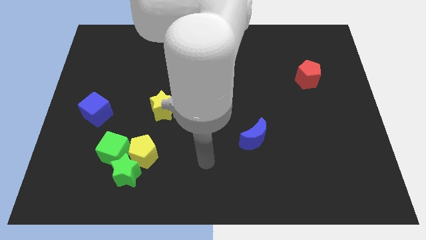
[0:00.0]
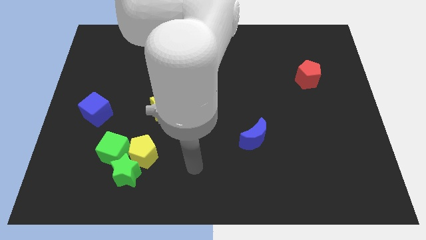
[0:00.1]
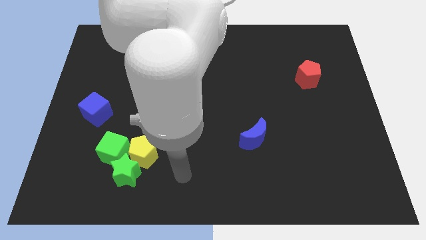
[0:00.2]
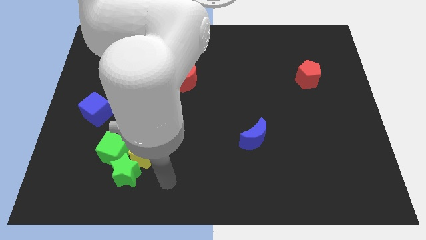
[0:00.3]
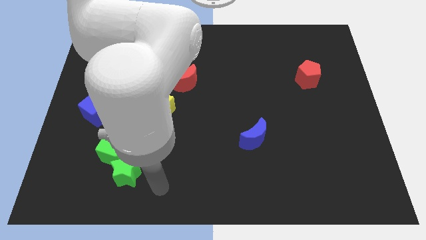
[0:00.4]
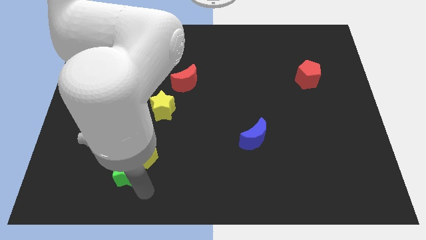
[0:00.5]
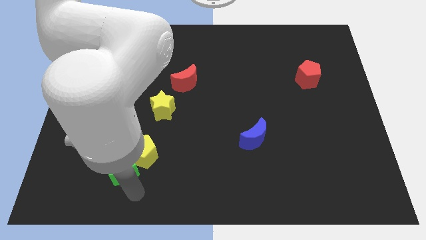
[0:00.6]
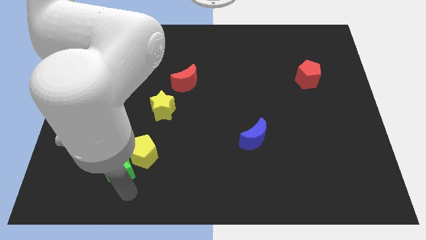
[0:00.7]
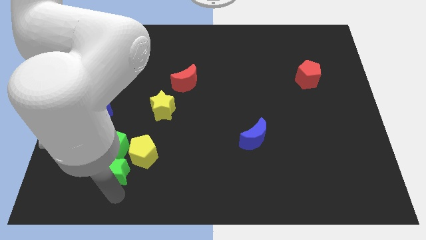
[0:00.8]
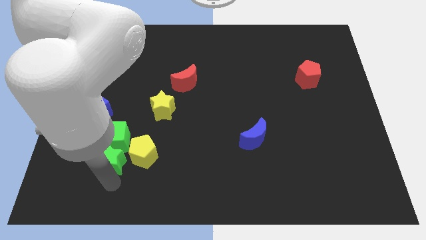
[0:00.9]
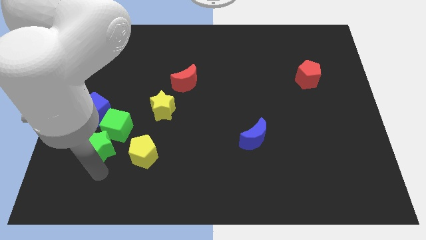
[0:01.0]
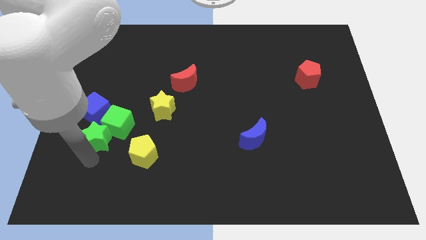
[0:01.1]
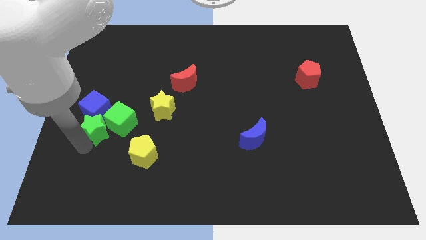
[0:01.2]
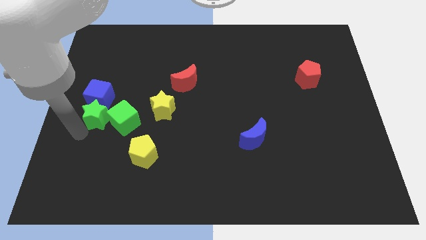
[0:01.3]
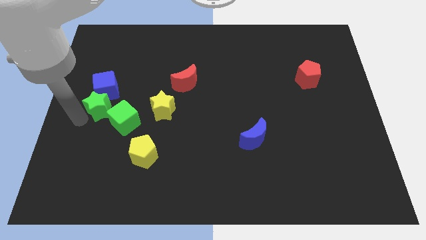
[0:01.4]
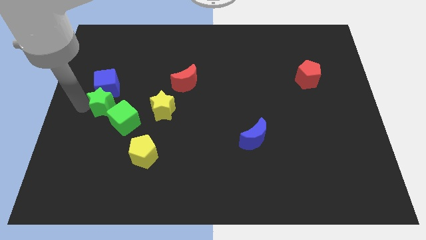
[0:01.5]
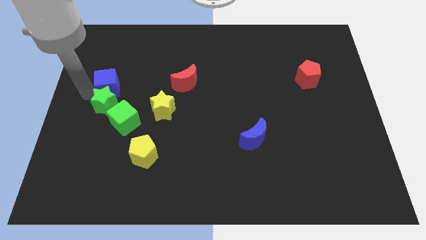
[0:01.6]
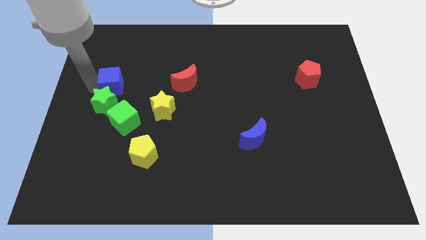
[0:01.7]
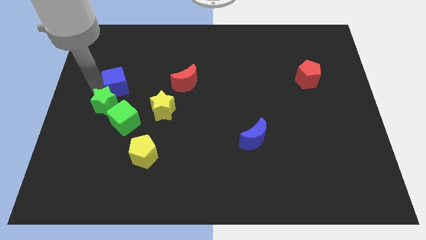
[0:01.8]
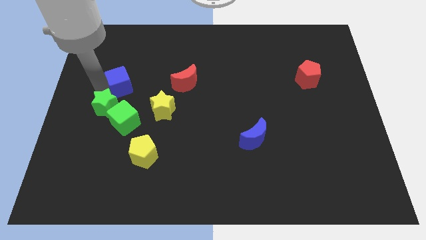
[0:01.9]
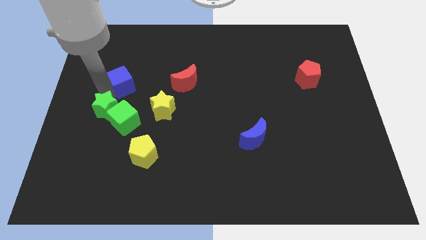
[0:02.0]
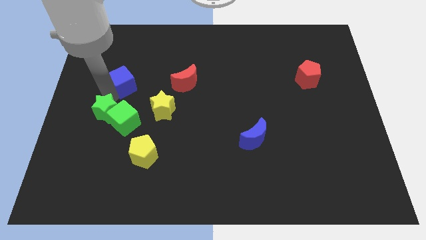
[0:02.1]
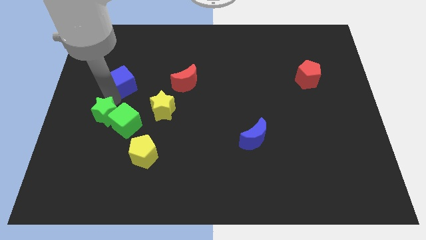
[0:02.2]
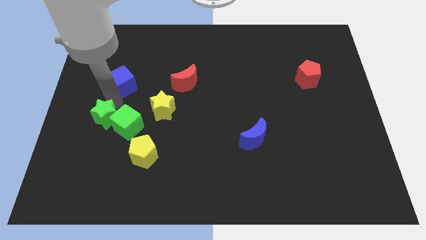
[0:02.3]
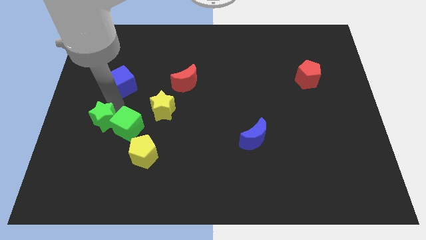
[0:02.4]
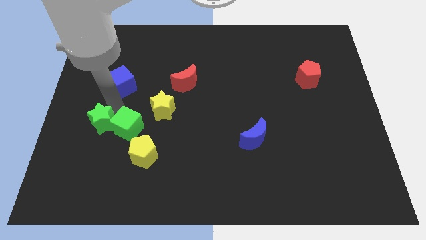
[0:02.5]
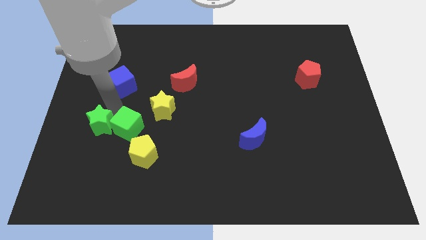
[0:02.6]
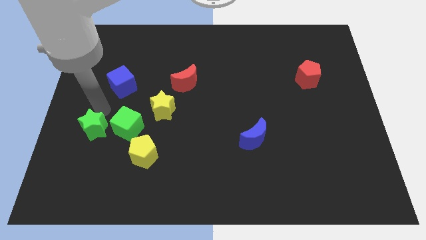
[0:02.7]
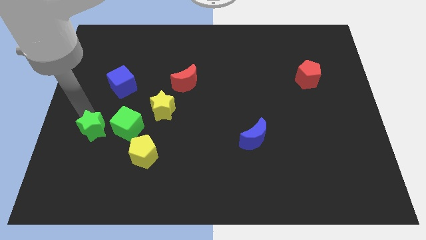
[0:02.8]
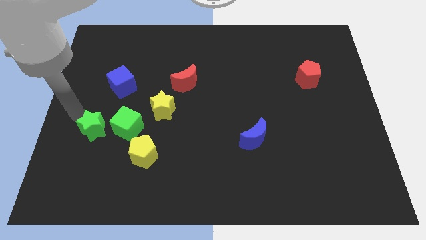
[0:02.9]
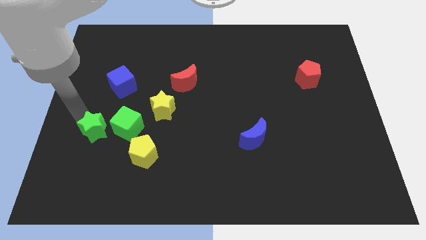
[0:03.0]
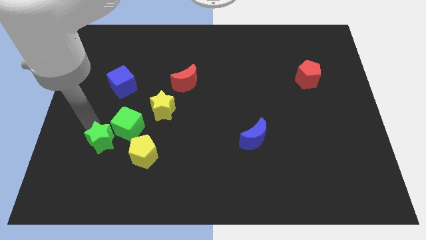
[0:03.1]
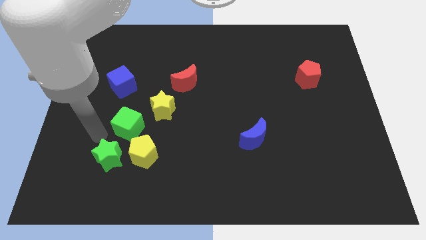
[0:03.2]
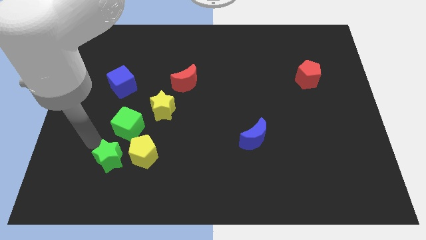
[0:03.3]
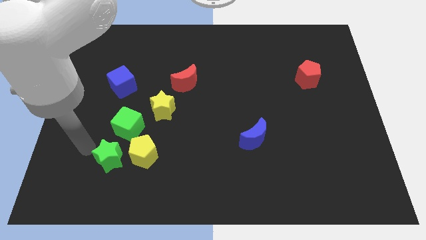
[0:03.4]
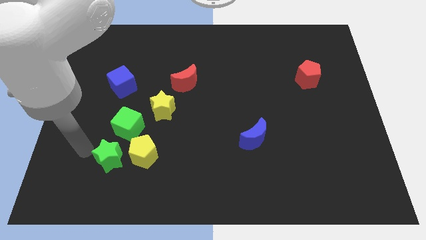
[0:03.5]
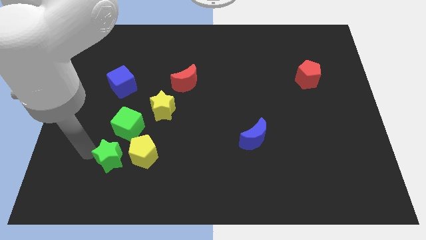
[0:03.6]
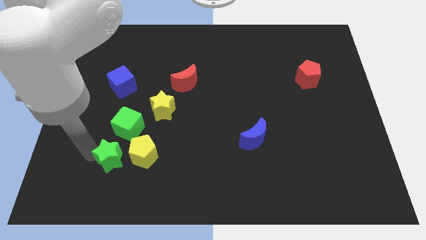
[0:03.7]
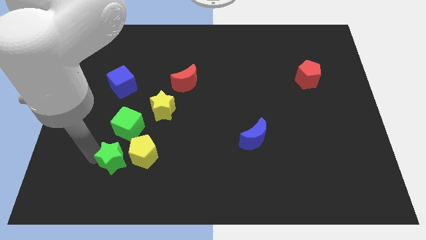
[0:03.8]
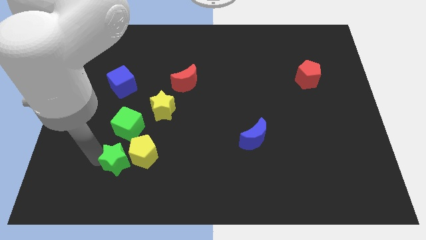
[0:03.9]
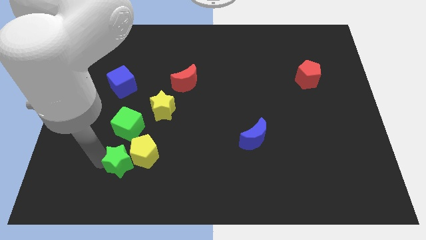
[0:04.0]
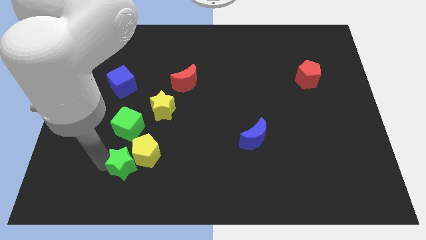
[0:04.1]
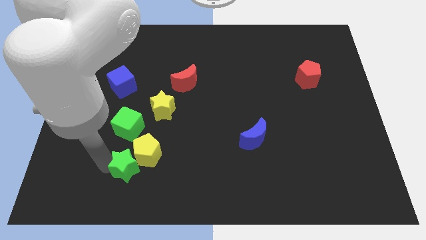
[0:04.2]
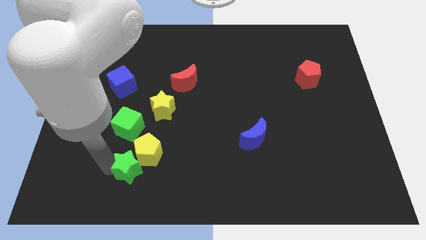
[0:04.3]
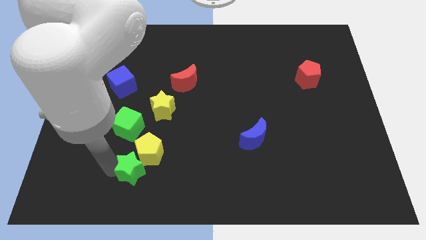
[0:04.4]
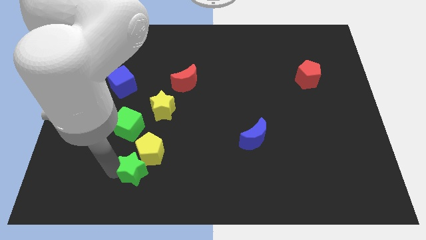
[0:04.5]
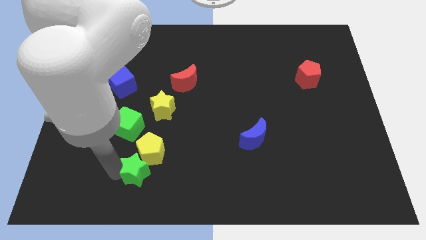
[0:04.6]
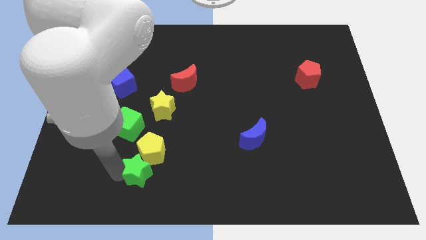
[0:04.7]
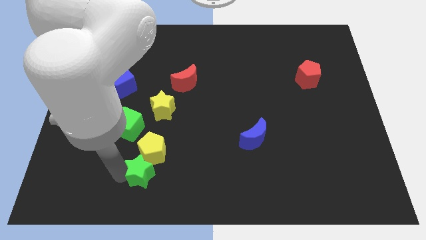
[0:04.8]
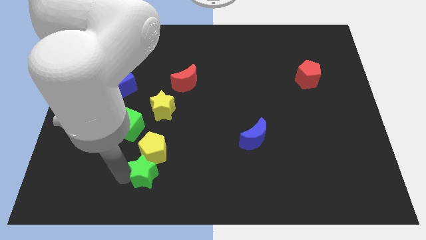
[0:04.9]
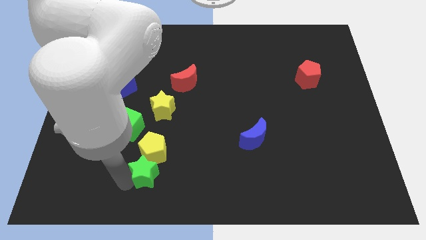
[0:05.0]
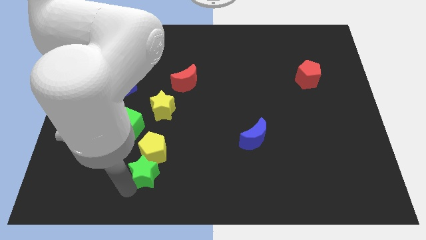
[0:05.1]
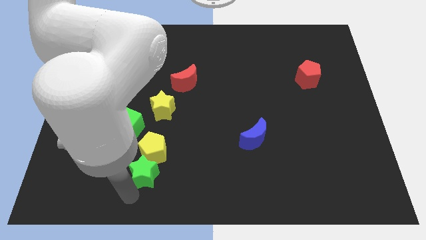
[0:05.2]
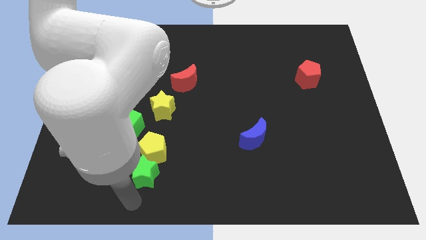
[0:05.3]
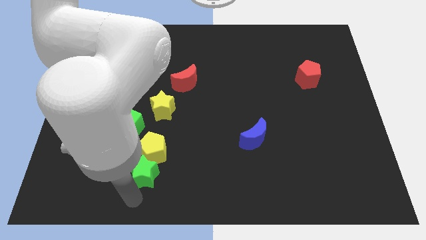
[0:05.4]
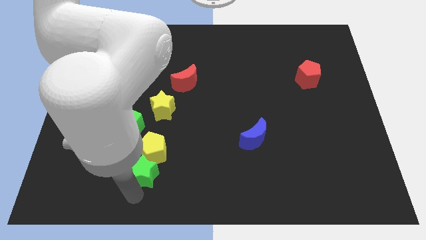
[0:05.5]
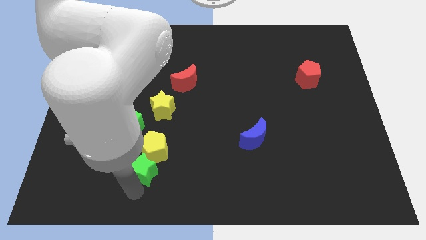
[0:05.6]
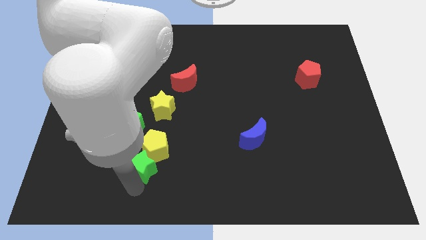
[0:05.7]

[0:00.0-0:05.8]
move the green star to the bottom side of the yellow star
